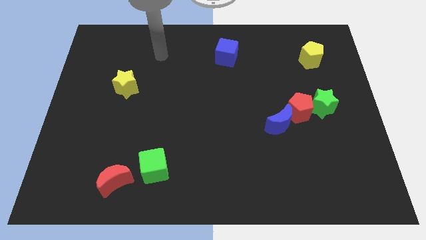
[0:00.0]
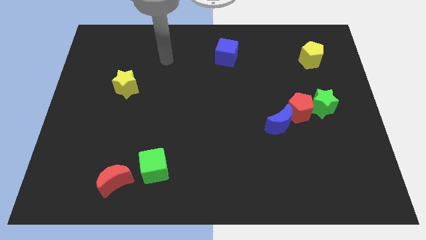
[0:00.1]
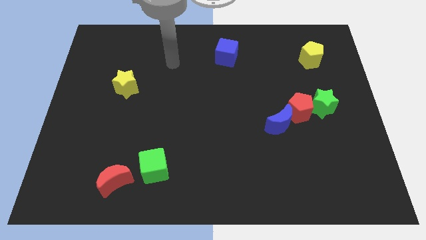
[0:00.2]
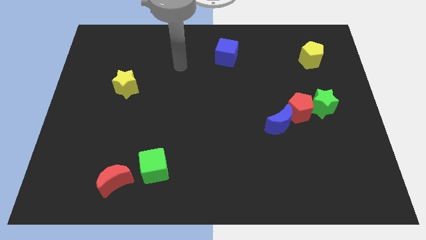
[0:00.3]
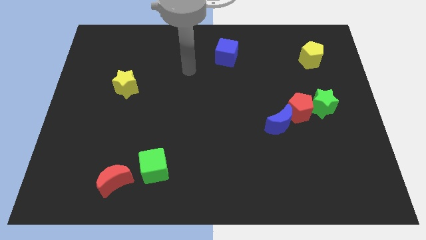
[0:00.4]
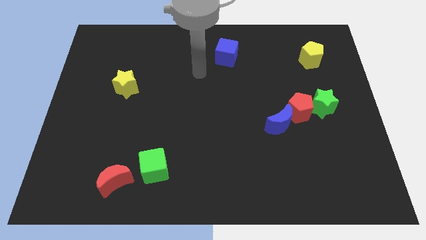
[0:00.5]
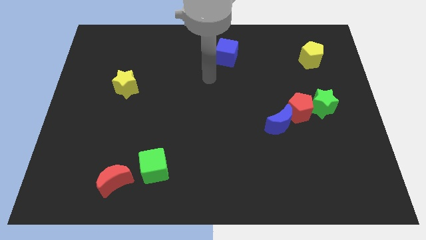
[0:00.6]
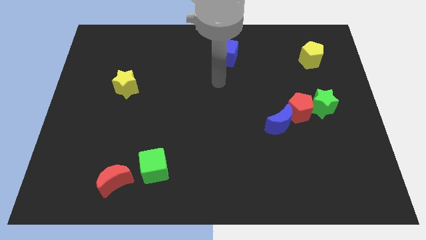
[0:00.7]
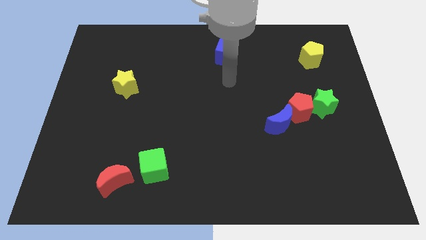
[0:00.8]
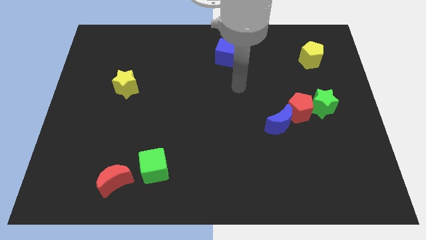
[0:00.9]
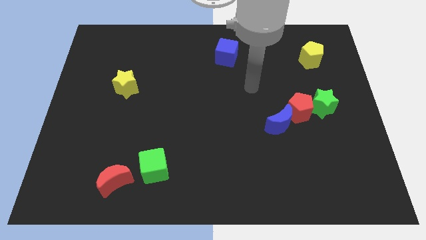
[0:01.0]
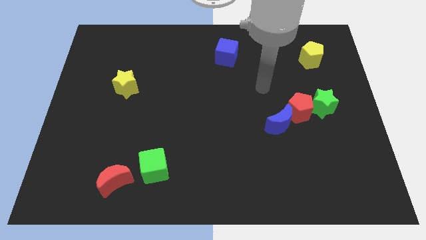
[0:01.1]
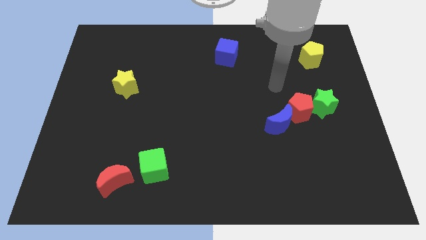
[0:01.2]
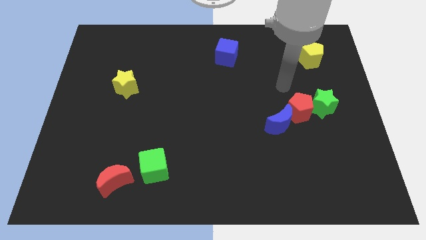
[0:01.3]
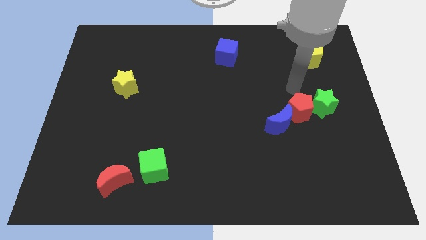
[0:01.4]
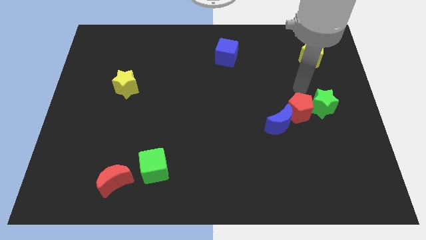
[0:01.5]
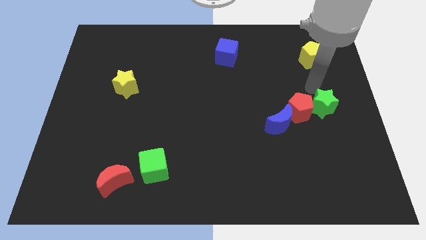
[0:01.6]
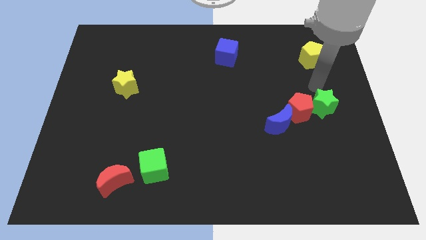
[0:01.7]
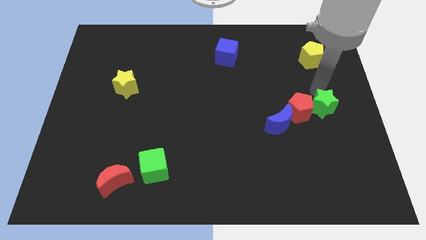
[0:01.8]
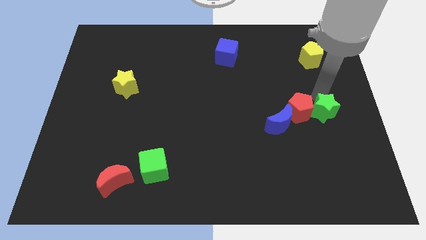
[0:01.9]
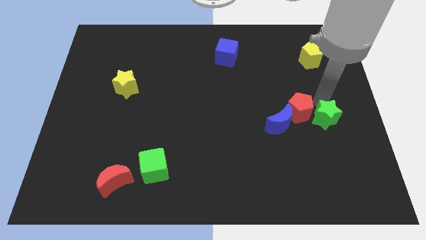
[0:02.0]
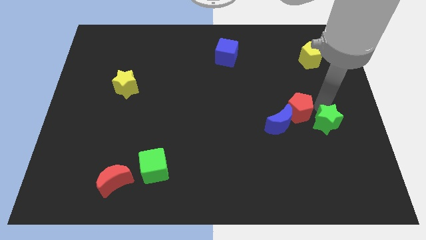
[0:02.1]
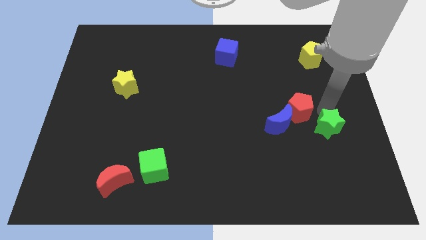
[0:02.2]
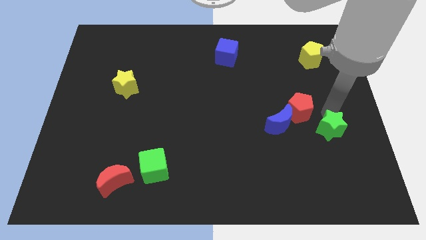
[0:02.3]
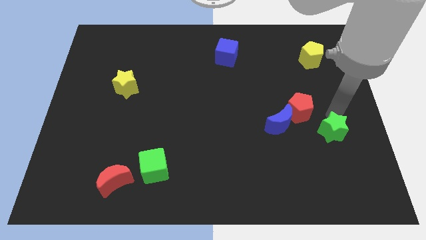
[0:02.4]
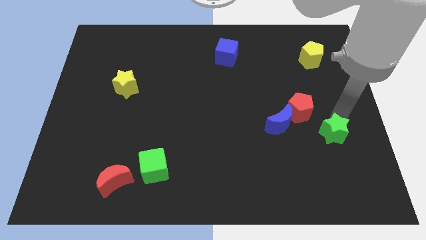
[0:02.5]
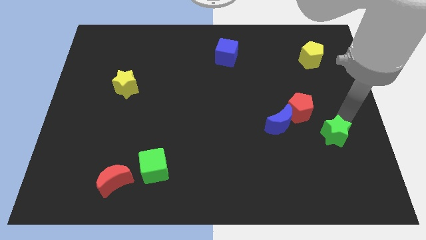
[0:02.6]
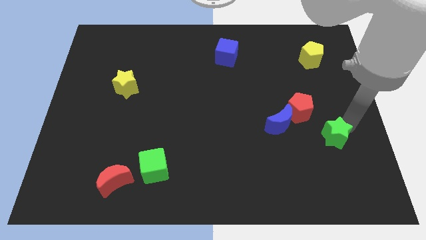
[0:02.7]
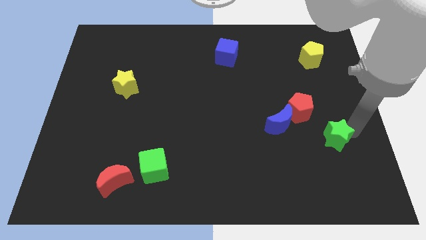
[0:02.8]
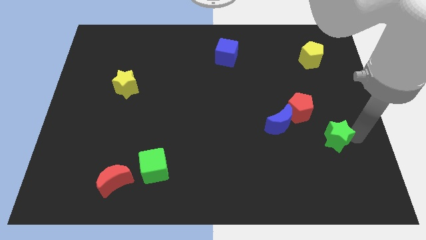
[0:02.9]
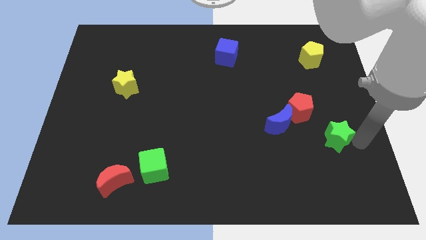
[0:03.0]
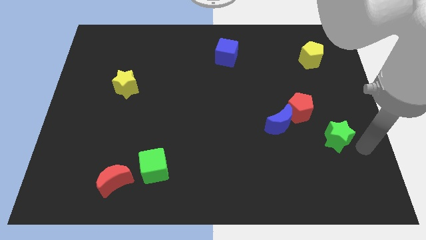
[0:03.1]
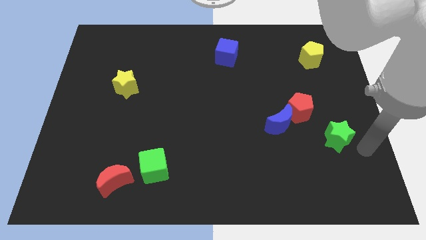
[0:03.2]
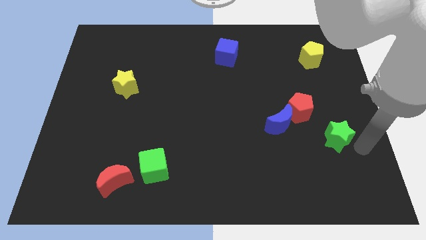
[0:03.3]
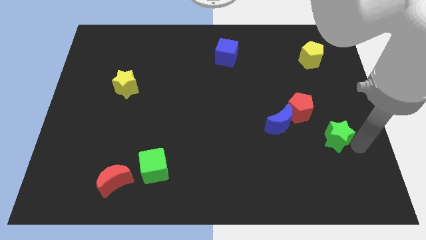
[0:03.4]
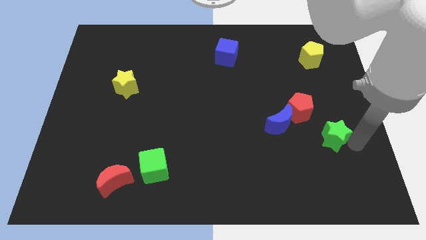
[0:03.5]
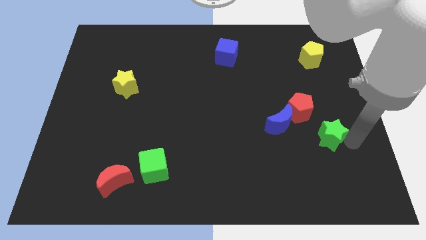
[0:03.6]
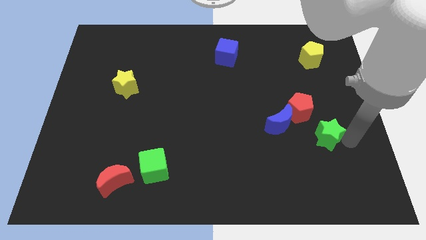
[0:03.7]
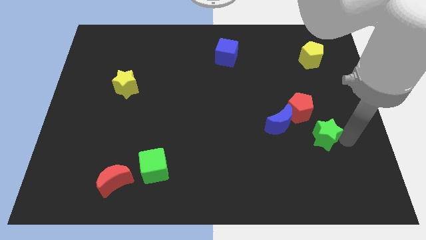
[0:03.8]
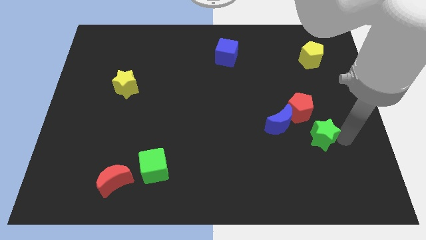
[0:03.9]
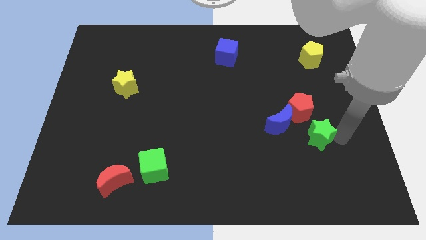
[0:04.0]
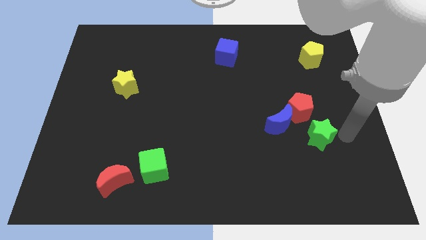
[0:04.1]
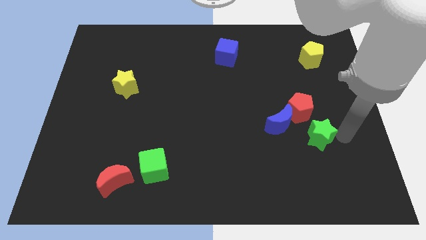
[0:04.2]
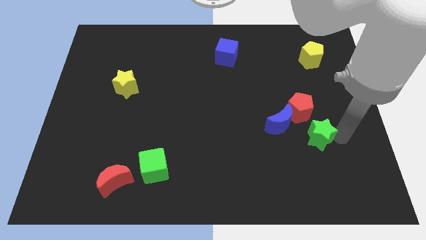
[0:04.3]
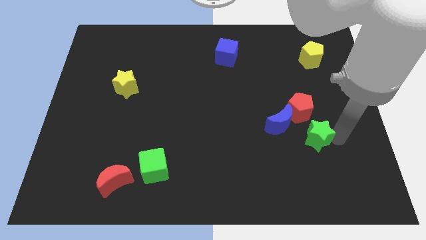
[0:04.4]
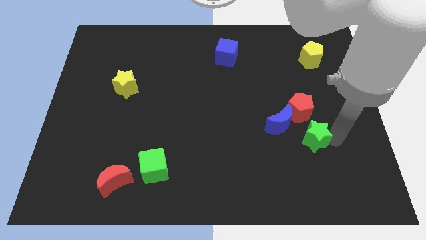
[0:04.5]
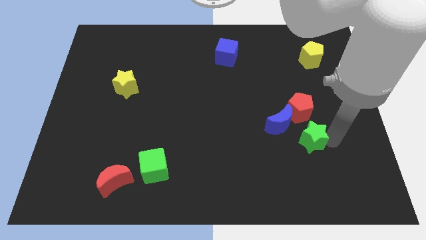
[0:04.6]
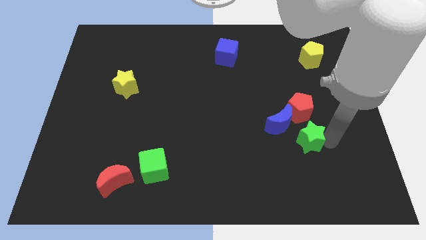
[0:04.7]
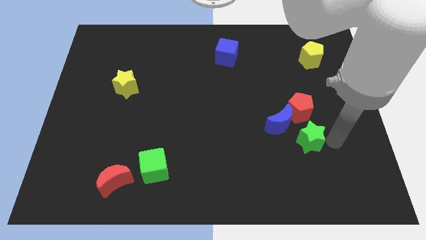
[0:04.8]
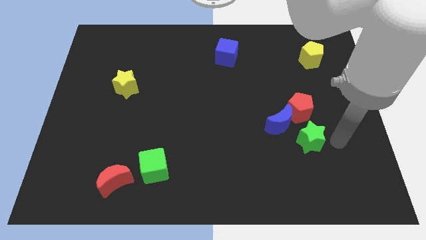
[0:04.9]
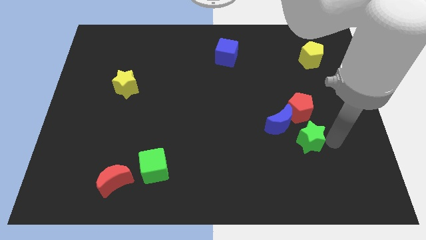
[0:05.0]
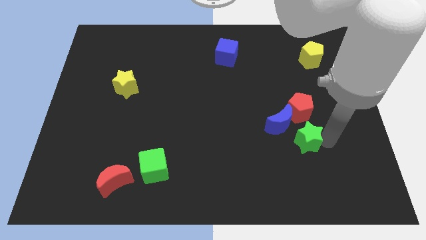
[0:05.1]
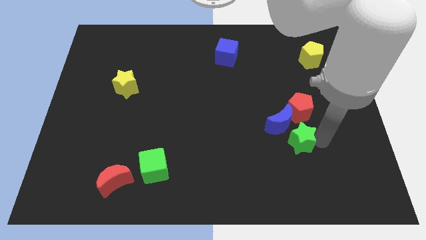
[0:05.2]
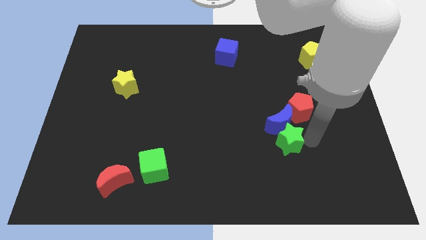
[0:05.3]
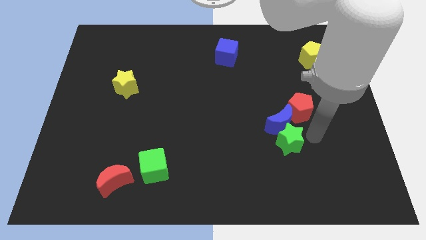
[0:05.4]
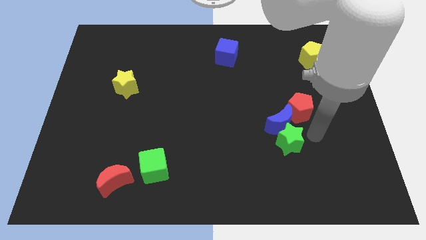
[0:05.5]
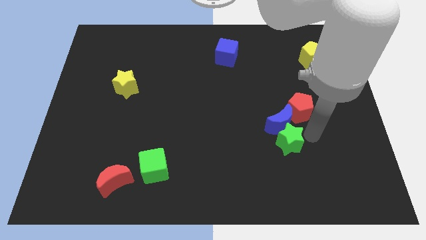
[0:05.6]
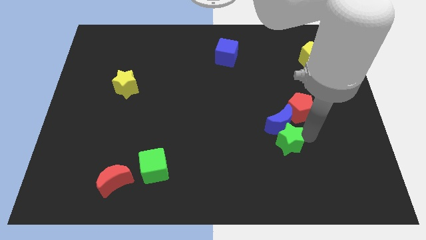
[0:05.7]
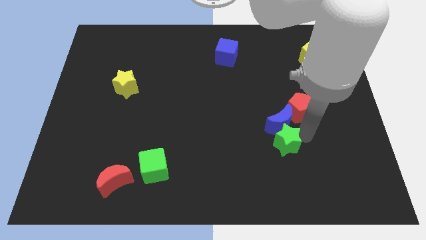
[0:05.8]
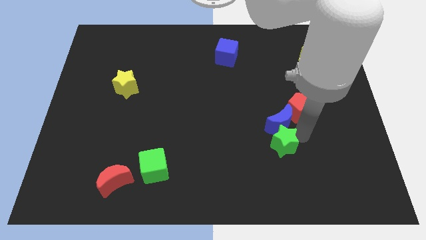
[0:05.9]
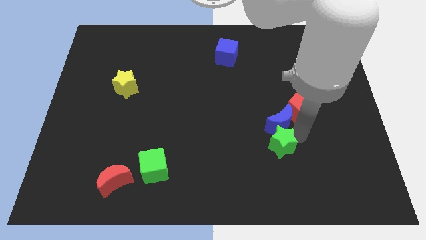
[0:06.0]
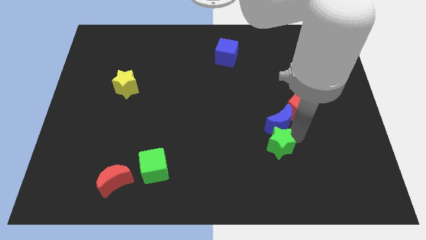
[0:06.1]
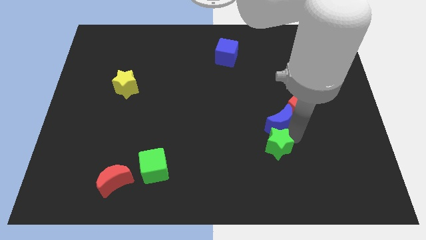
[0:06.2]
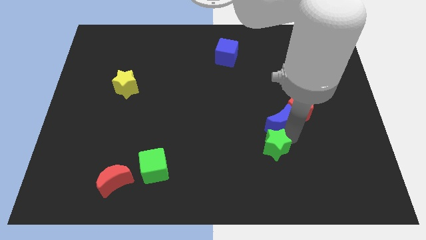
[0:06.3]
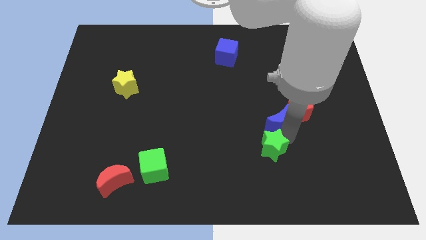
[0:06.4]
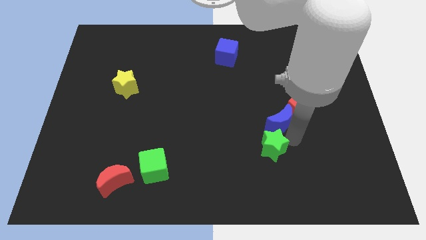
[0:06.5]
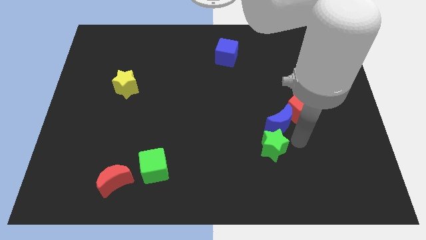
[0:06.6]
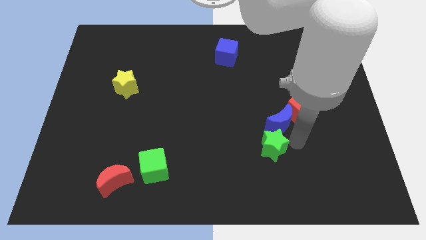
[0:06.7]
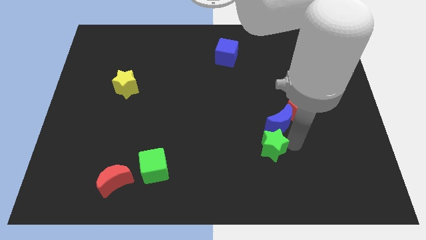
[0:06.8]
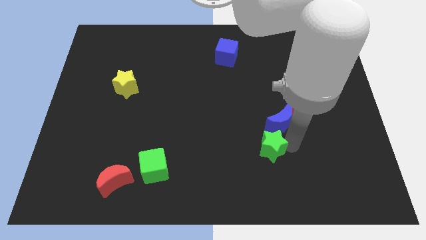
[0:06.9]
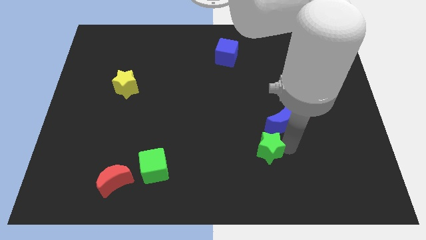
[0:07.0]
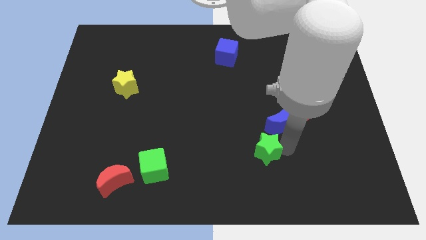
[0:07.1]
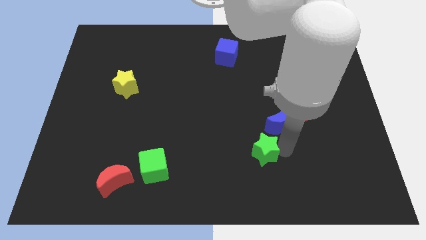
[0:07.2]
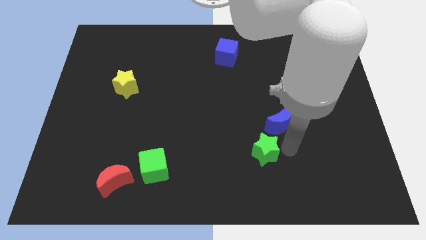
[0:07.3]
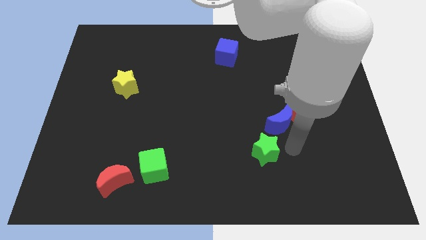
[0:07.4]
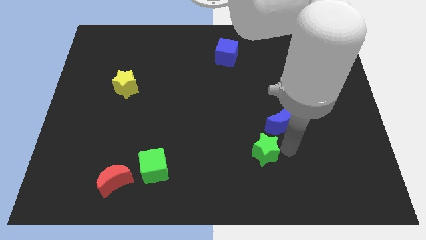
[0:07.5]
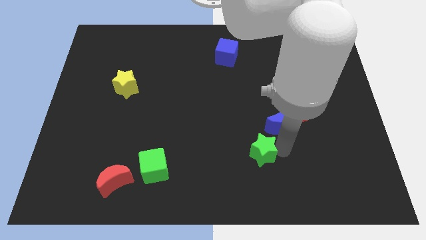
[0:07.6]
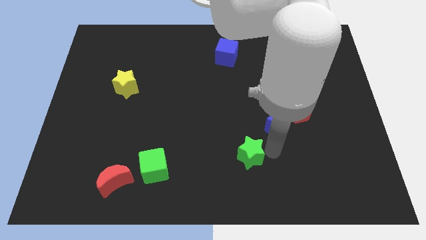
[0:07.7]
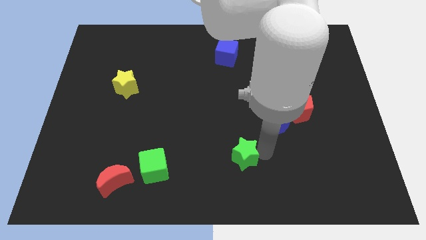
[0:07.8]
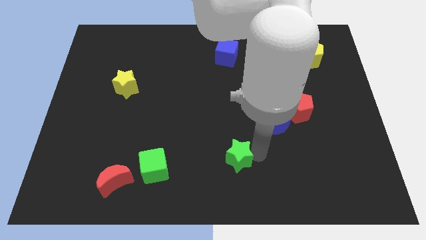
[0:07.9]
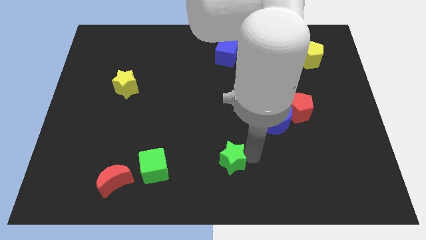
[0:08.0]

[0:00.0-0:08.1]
slide the green star just right of the green cube
